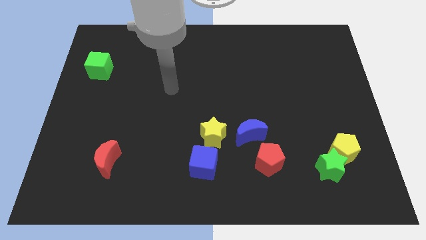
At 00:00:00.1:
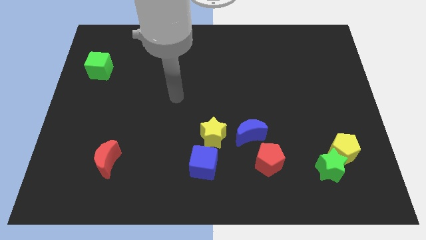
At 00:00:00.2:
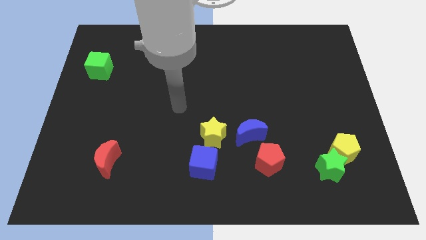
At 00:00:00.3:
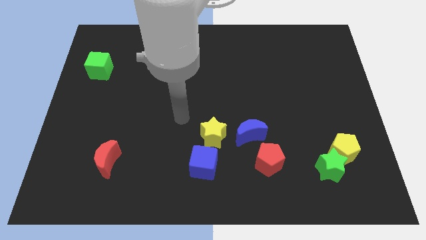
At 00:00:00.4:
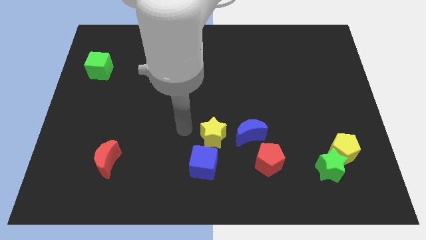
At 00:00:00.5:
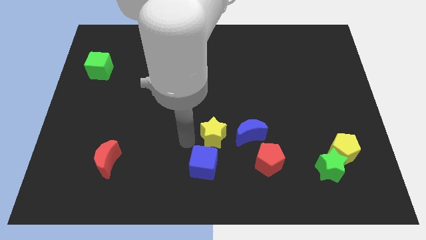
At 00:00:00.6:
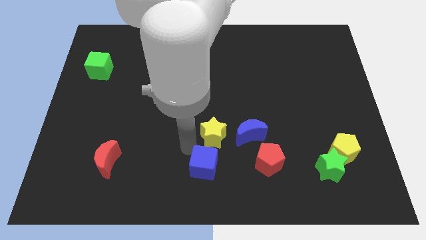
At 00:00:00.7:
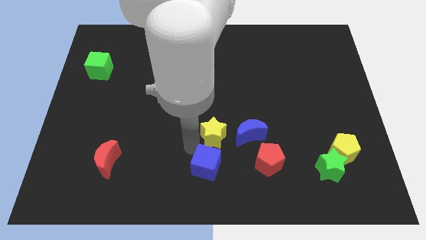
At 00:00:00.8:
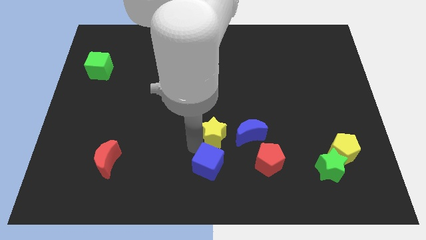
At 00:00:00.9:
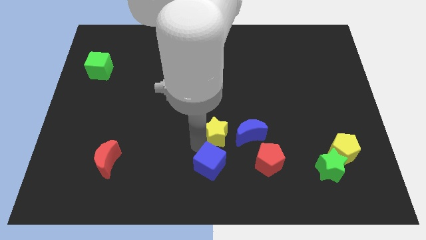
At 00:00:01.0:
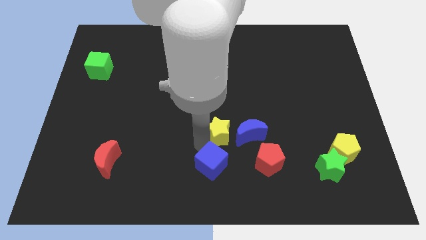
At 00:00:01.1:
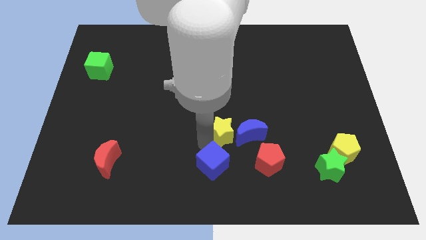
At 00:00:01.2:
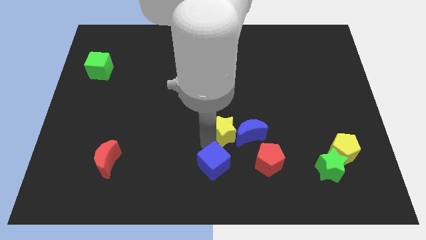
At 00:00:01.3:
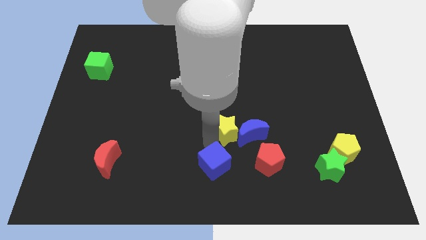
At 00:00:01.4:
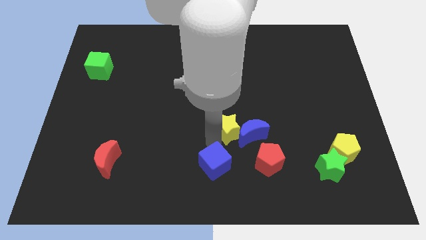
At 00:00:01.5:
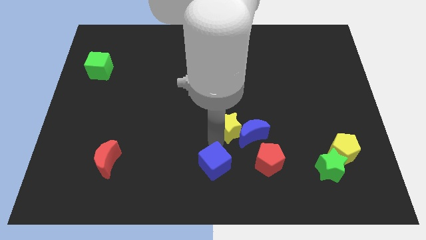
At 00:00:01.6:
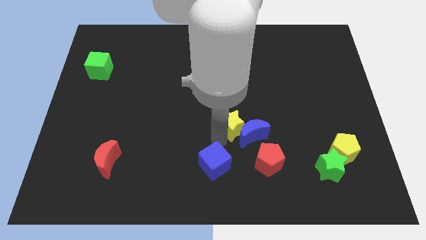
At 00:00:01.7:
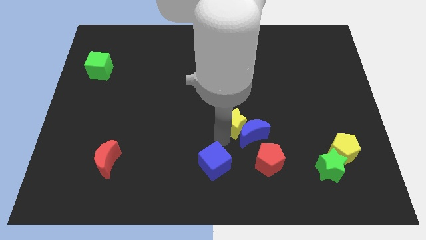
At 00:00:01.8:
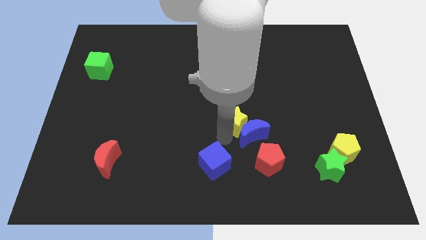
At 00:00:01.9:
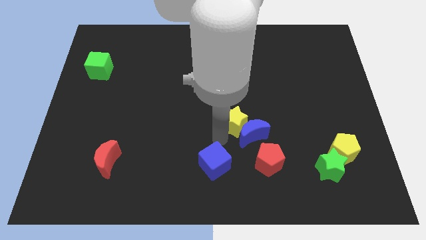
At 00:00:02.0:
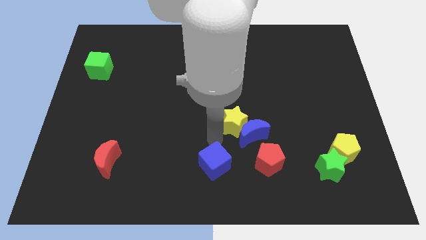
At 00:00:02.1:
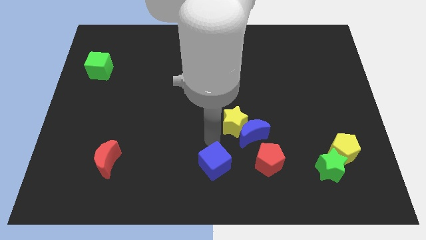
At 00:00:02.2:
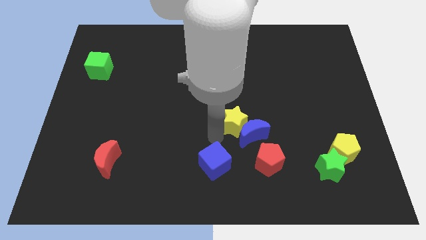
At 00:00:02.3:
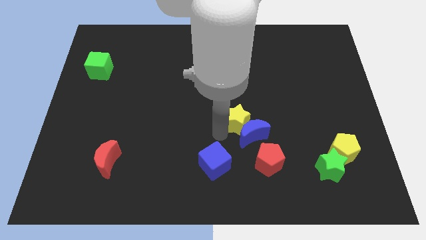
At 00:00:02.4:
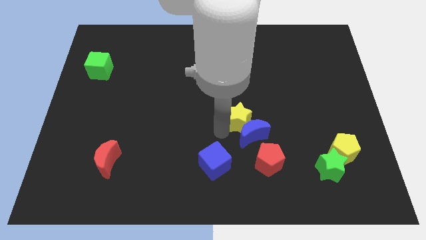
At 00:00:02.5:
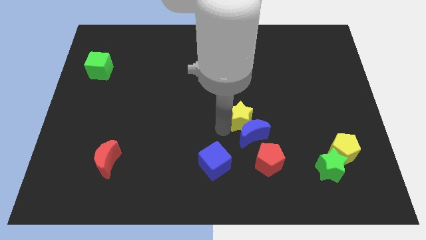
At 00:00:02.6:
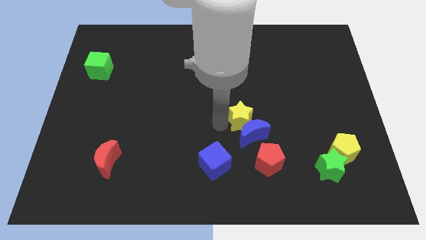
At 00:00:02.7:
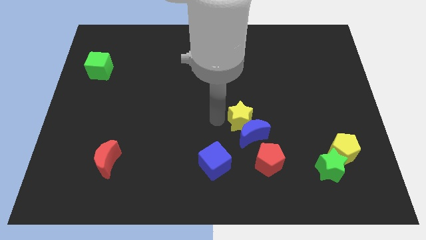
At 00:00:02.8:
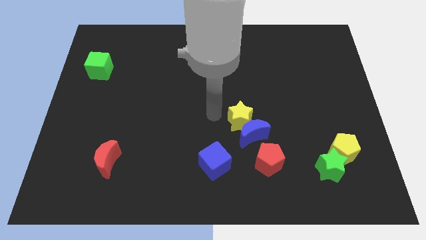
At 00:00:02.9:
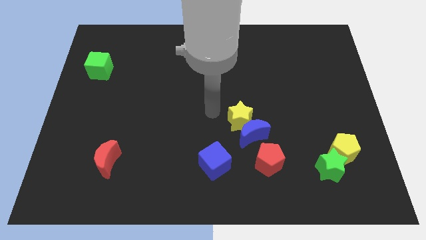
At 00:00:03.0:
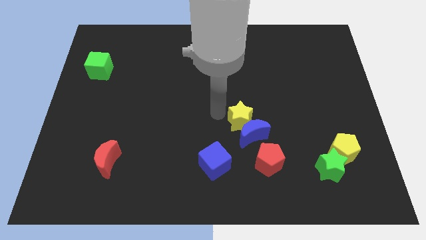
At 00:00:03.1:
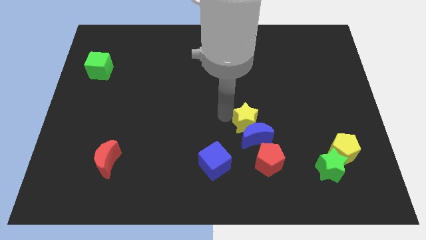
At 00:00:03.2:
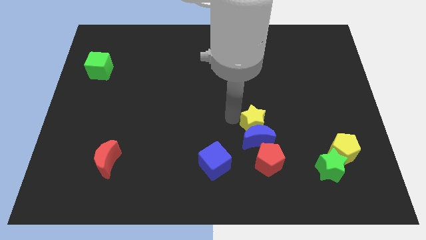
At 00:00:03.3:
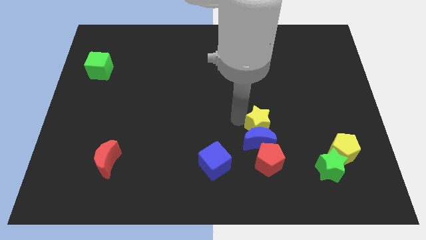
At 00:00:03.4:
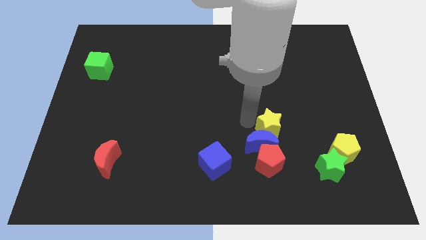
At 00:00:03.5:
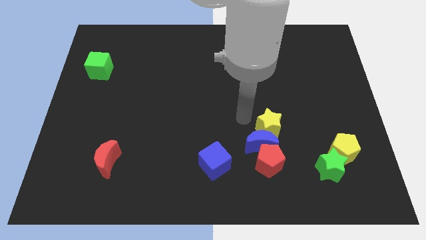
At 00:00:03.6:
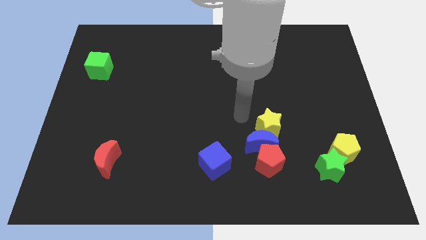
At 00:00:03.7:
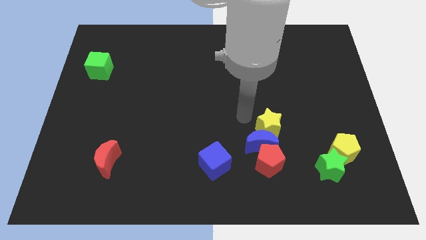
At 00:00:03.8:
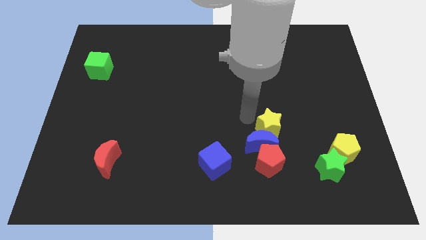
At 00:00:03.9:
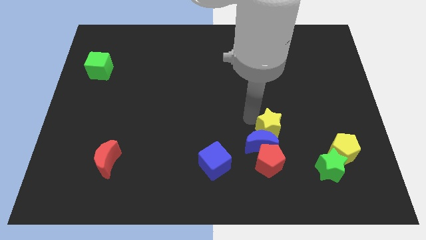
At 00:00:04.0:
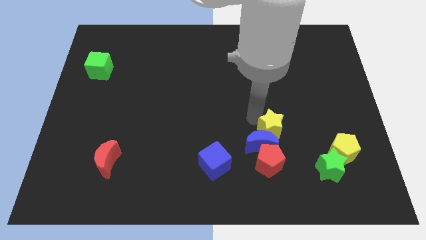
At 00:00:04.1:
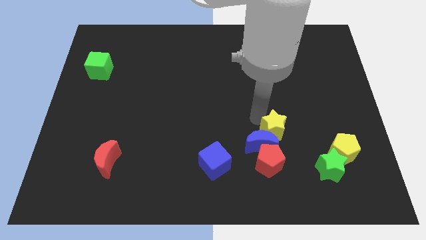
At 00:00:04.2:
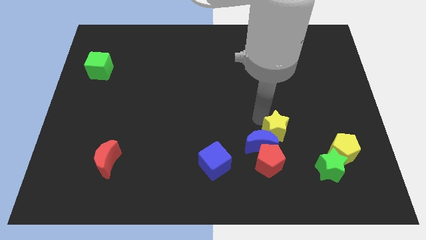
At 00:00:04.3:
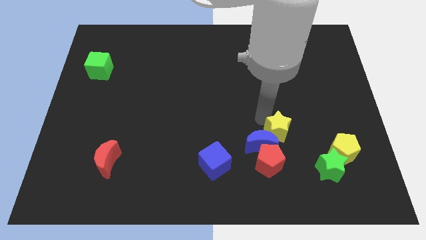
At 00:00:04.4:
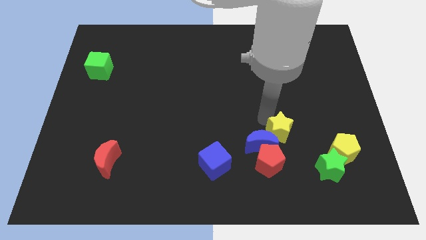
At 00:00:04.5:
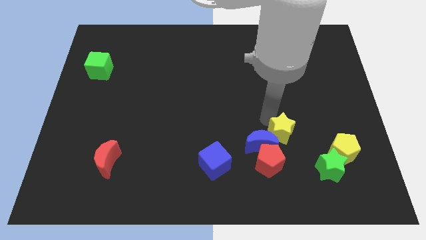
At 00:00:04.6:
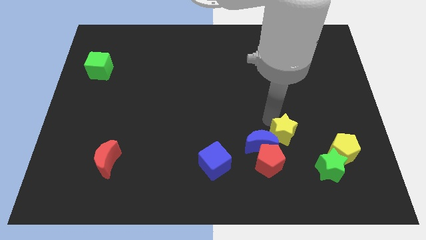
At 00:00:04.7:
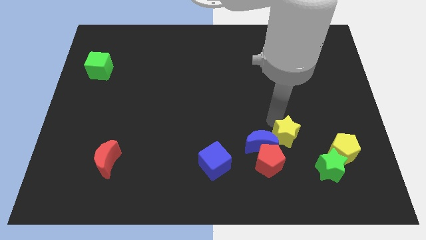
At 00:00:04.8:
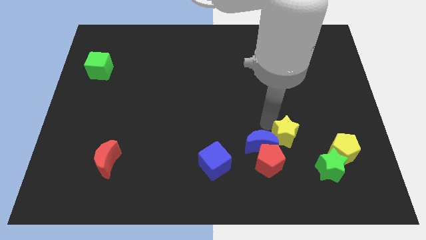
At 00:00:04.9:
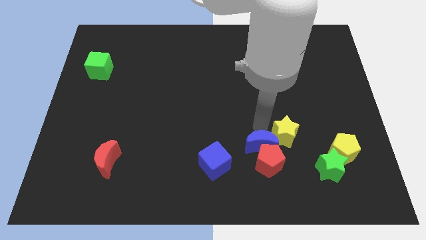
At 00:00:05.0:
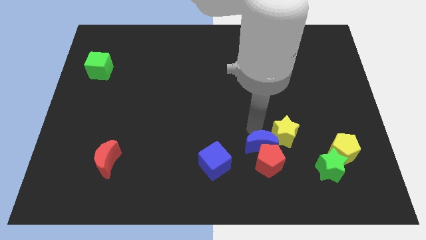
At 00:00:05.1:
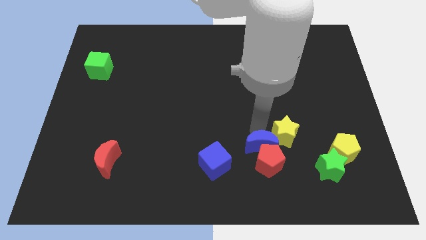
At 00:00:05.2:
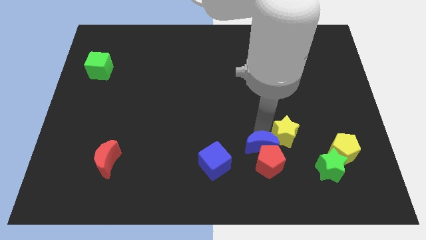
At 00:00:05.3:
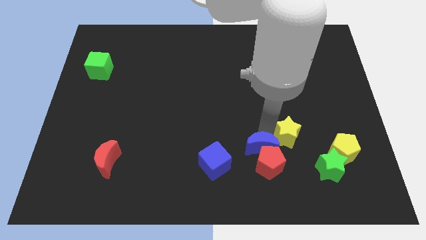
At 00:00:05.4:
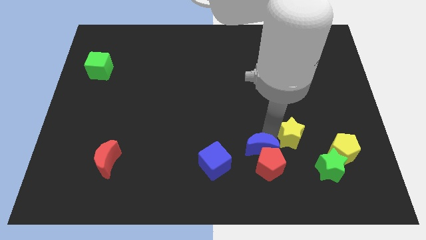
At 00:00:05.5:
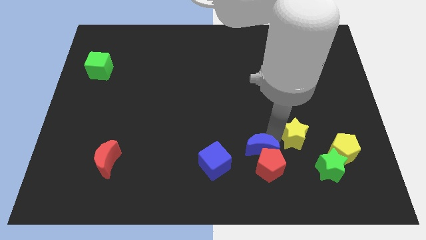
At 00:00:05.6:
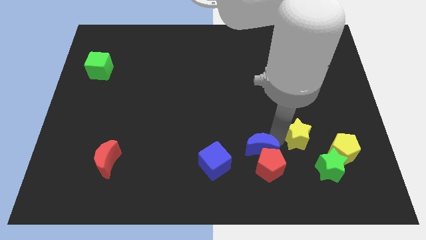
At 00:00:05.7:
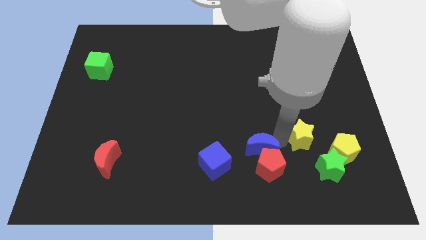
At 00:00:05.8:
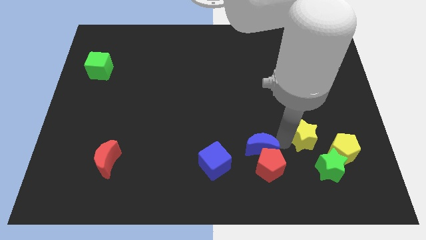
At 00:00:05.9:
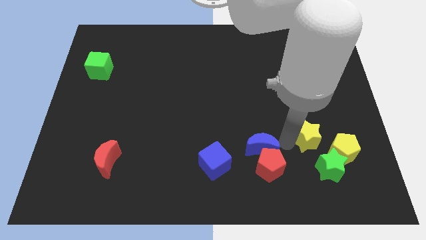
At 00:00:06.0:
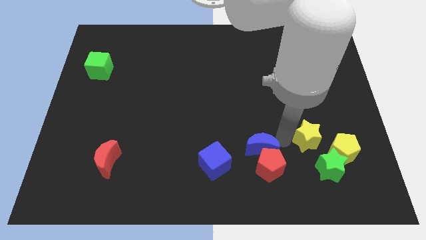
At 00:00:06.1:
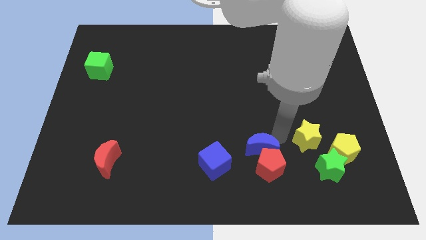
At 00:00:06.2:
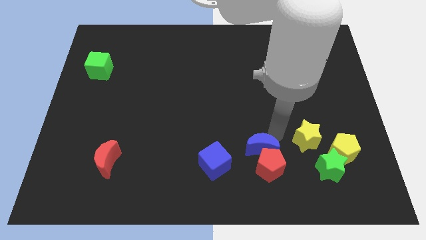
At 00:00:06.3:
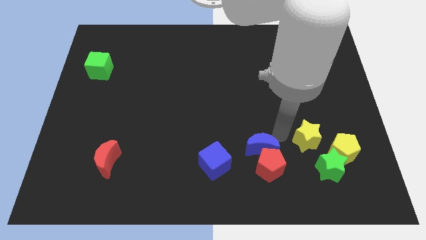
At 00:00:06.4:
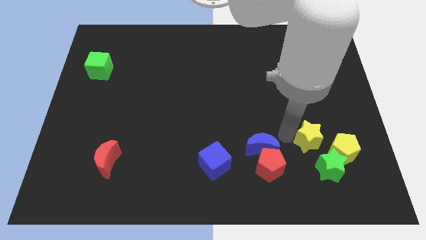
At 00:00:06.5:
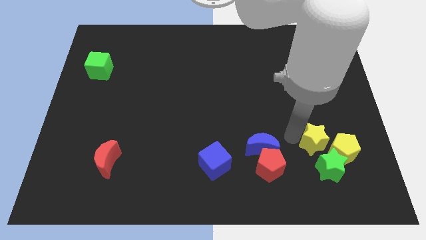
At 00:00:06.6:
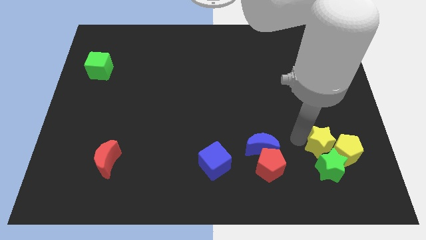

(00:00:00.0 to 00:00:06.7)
move the yellow star next to the yellow pentagon

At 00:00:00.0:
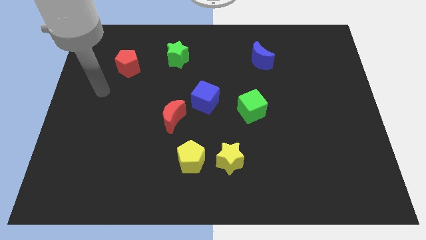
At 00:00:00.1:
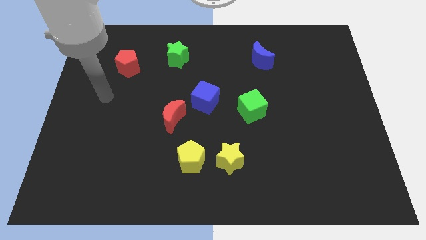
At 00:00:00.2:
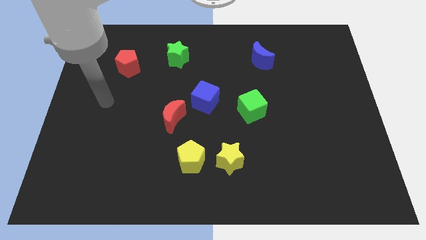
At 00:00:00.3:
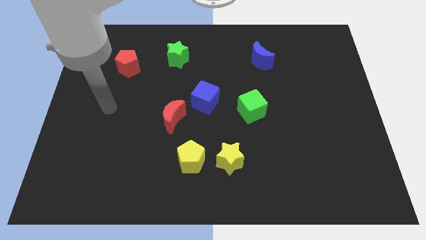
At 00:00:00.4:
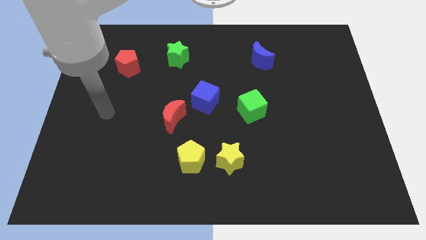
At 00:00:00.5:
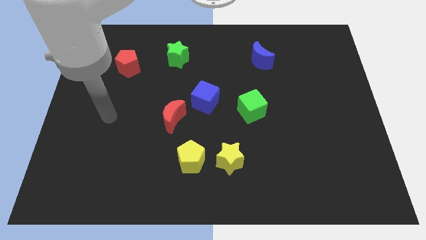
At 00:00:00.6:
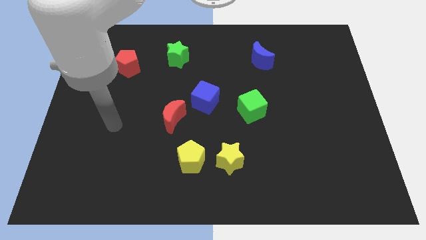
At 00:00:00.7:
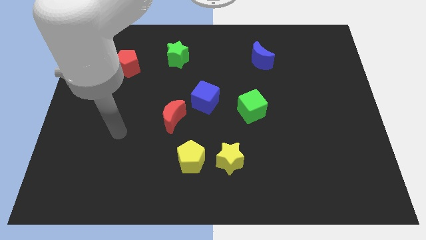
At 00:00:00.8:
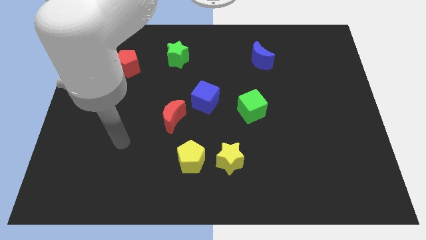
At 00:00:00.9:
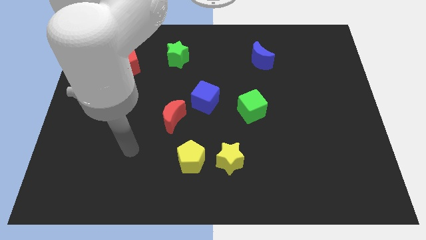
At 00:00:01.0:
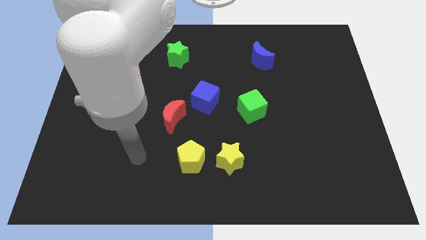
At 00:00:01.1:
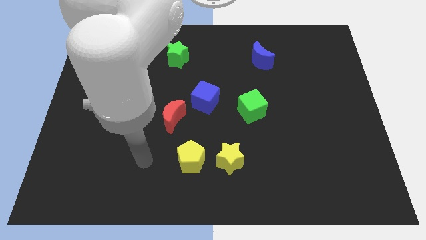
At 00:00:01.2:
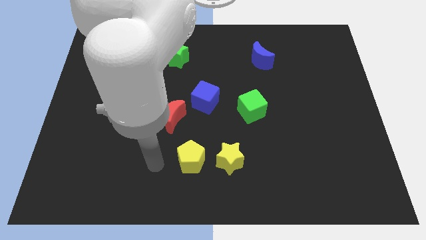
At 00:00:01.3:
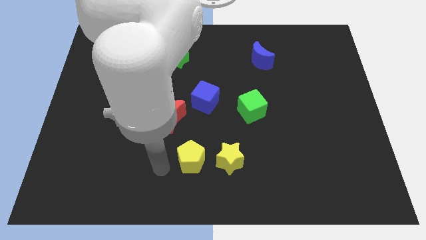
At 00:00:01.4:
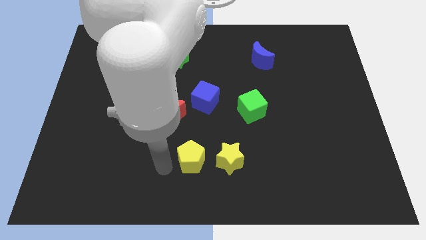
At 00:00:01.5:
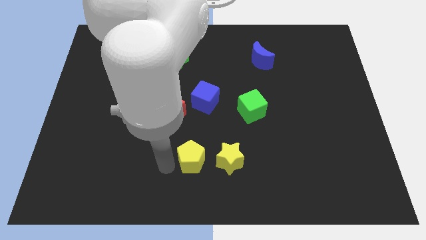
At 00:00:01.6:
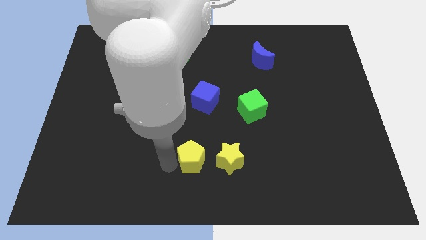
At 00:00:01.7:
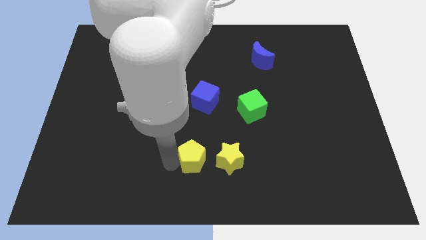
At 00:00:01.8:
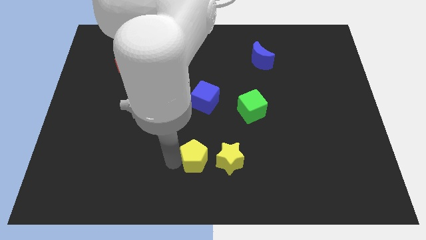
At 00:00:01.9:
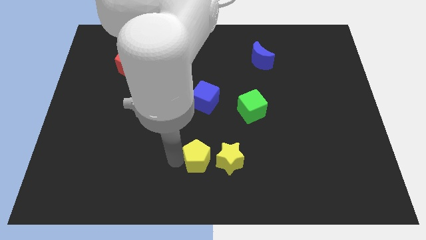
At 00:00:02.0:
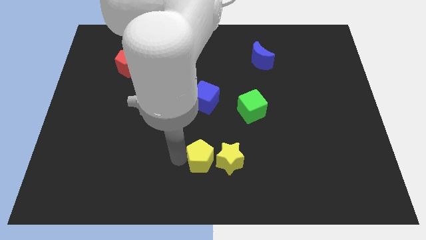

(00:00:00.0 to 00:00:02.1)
move the yellow pentagon close to the yellow star
